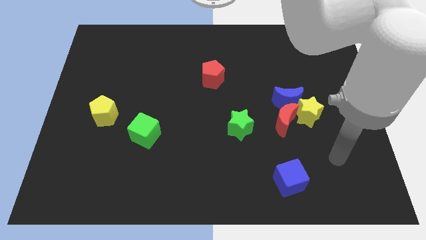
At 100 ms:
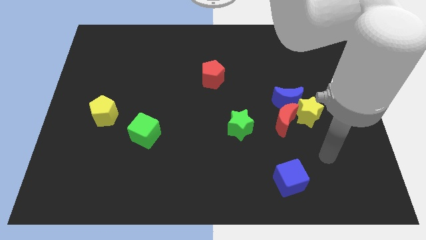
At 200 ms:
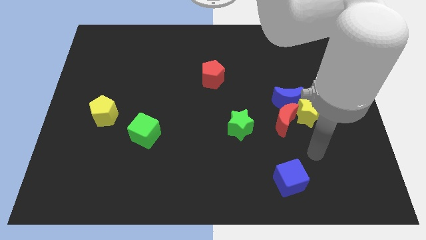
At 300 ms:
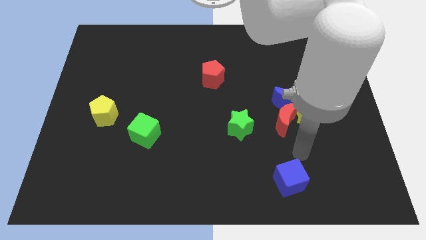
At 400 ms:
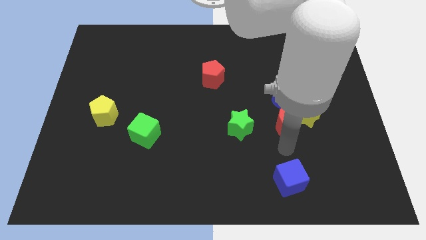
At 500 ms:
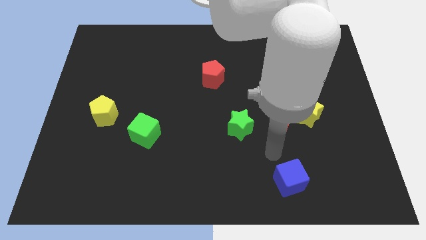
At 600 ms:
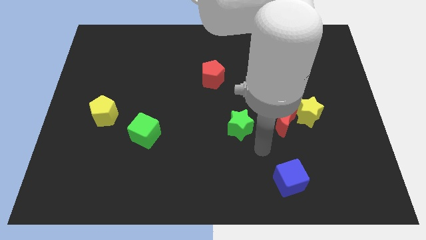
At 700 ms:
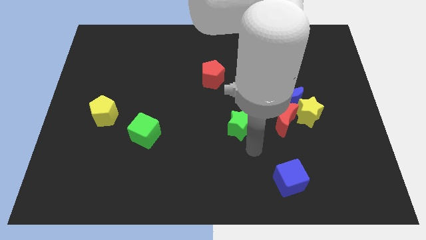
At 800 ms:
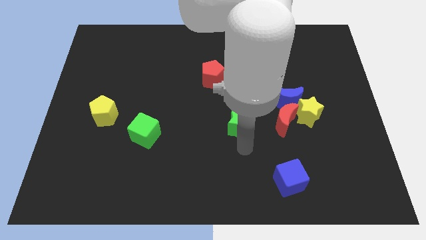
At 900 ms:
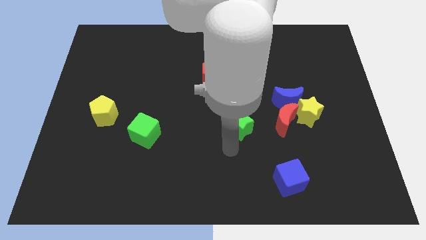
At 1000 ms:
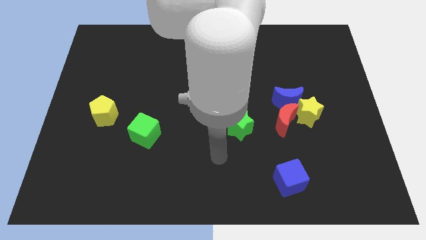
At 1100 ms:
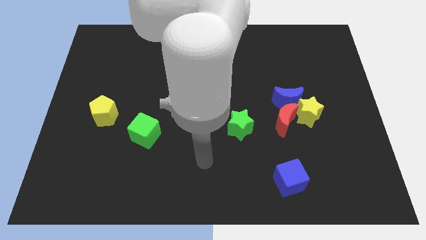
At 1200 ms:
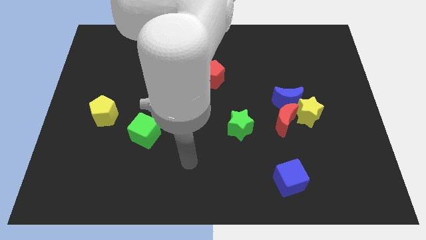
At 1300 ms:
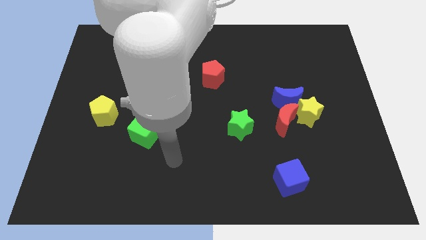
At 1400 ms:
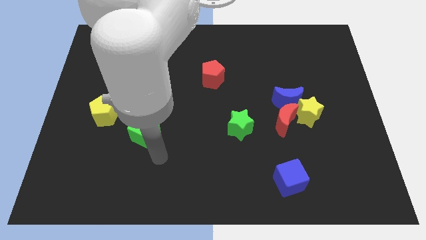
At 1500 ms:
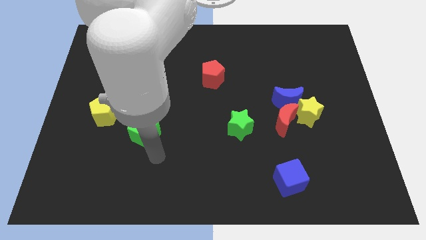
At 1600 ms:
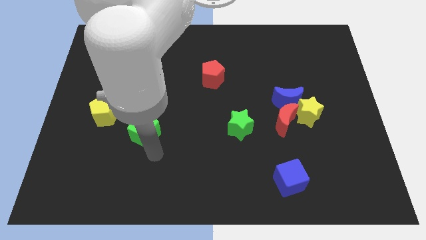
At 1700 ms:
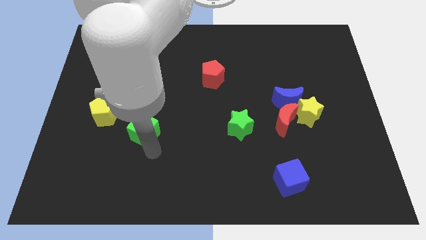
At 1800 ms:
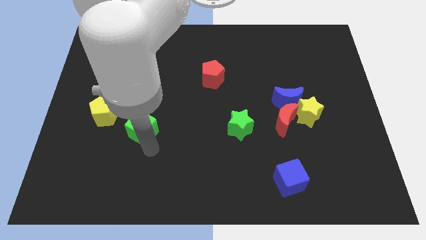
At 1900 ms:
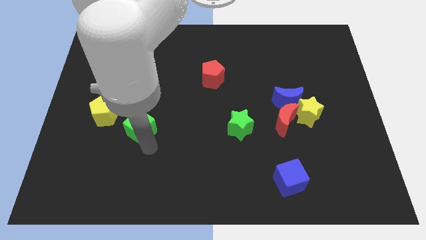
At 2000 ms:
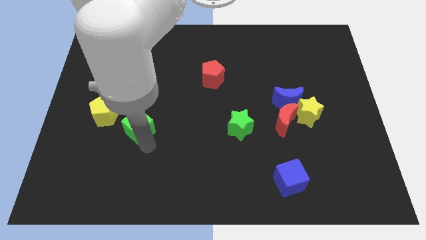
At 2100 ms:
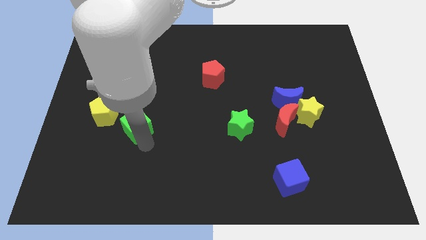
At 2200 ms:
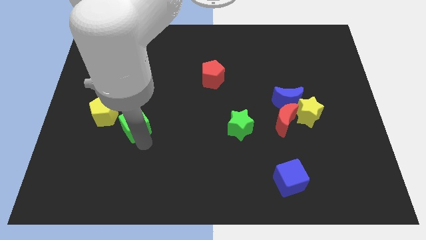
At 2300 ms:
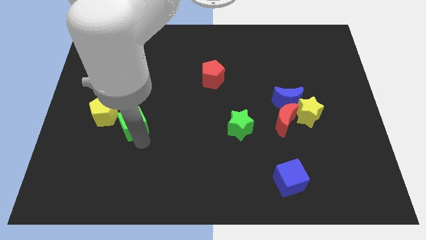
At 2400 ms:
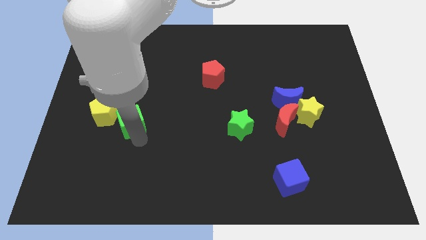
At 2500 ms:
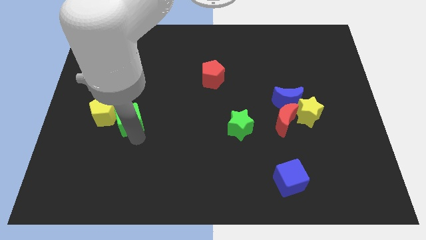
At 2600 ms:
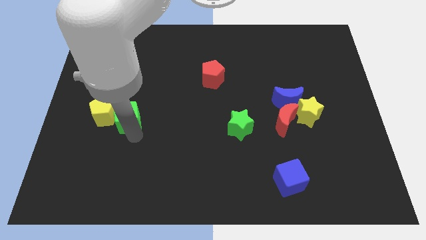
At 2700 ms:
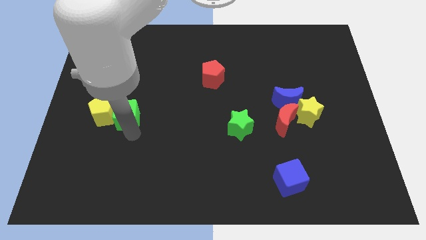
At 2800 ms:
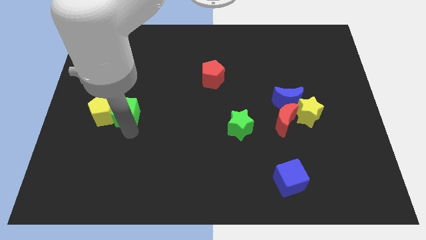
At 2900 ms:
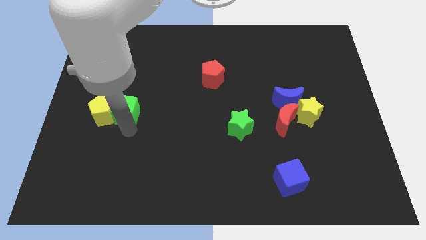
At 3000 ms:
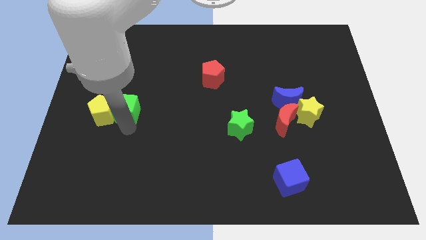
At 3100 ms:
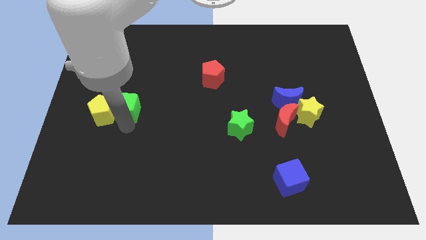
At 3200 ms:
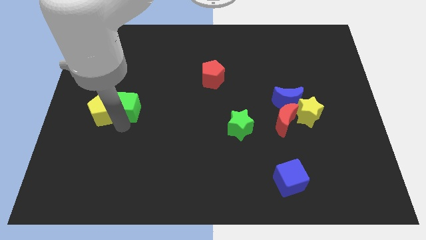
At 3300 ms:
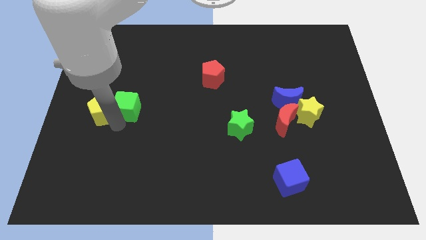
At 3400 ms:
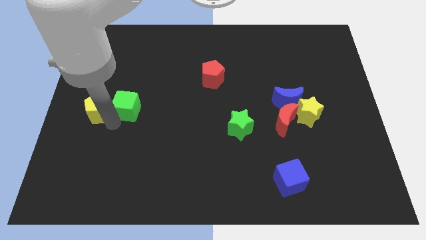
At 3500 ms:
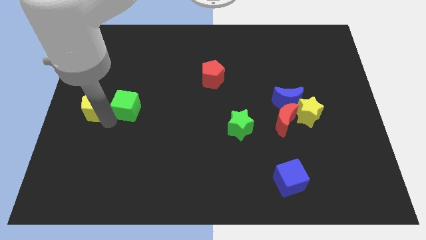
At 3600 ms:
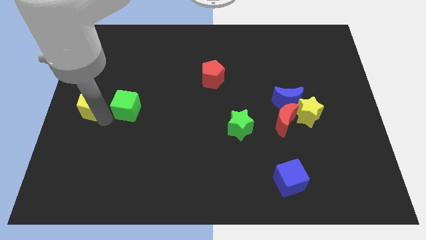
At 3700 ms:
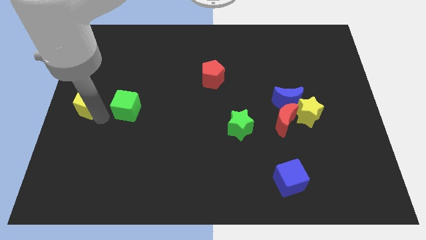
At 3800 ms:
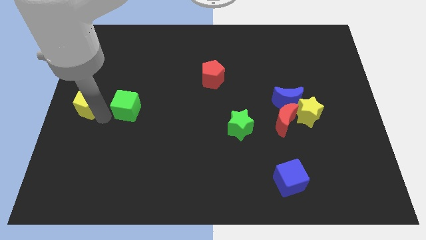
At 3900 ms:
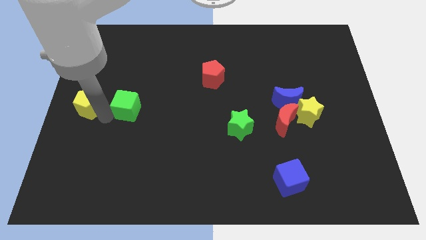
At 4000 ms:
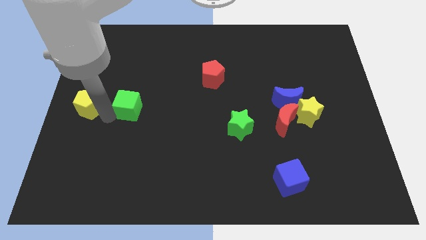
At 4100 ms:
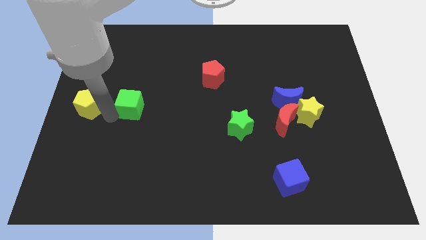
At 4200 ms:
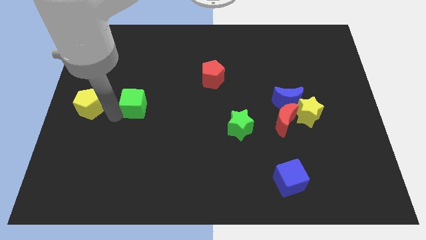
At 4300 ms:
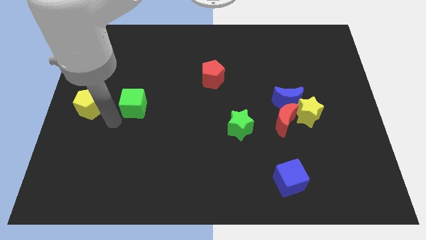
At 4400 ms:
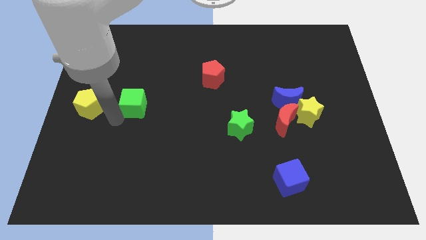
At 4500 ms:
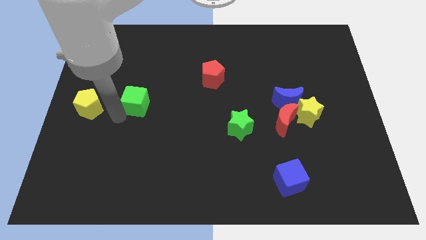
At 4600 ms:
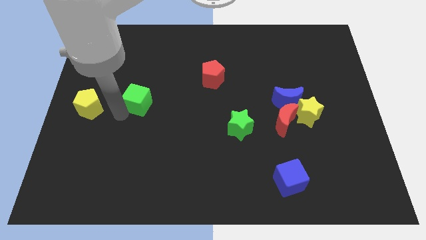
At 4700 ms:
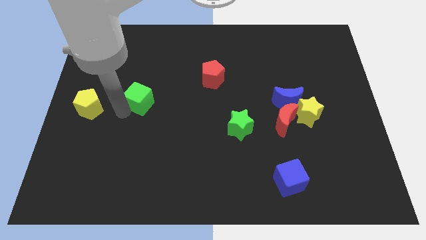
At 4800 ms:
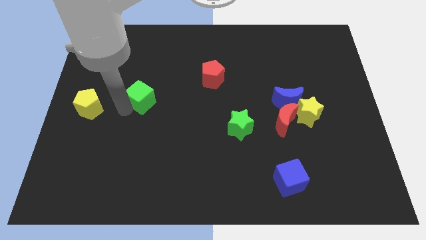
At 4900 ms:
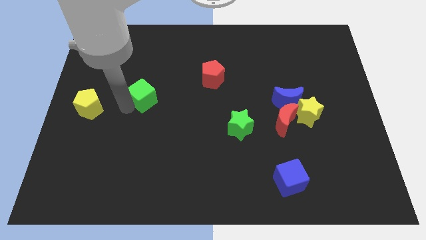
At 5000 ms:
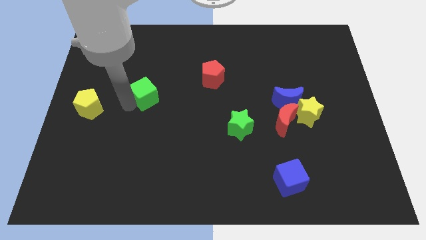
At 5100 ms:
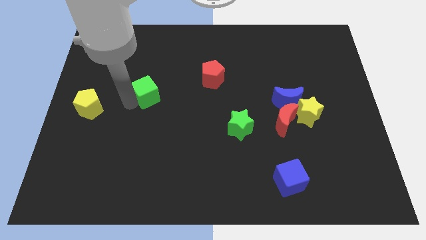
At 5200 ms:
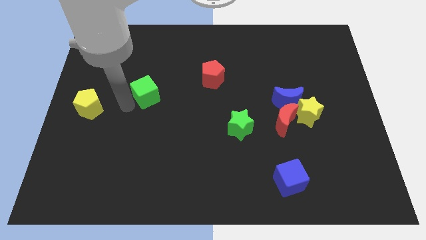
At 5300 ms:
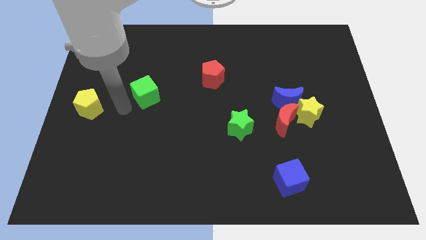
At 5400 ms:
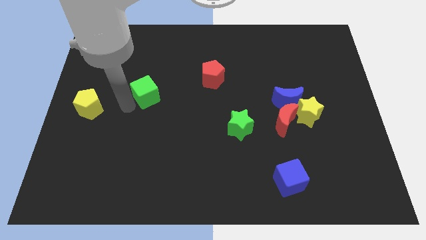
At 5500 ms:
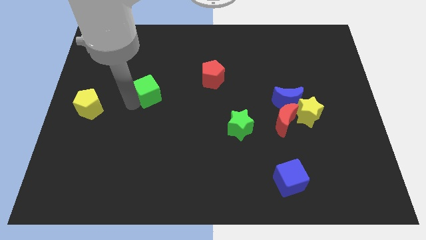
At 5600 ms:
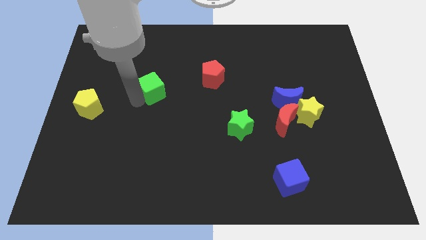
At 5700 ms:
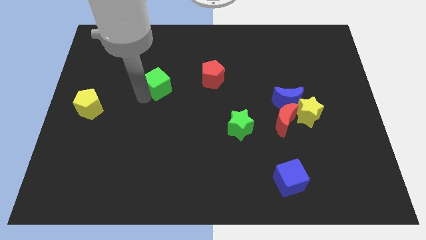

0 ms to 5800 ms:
put the green cube left of the red pentagon

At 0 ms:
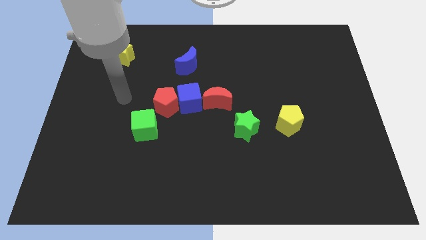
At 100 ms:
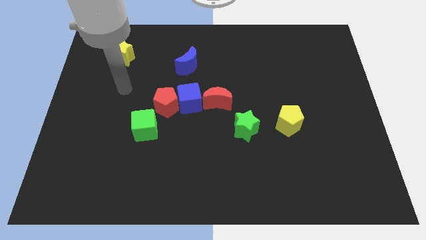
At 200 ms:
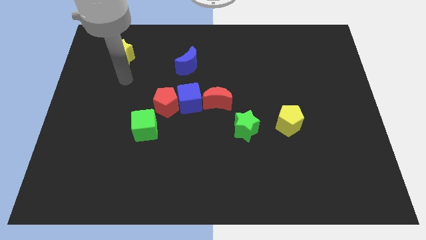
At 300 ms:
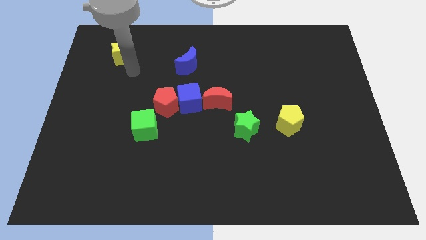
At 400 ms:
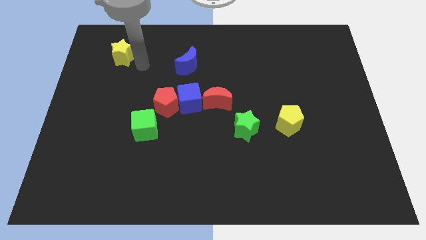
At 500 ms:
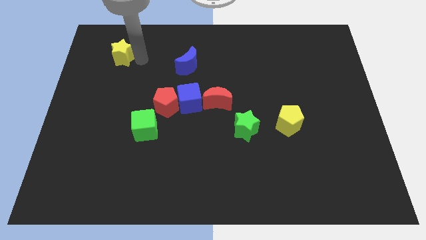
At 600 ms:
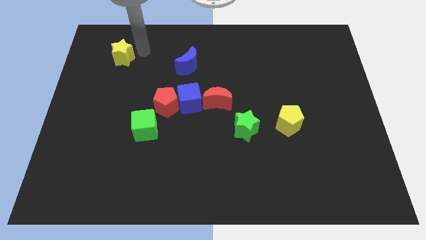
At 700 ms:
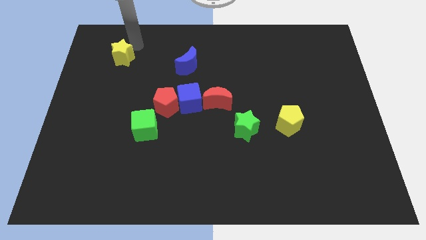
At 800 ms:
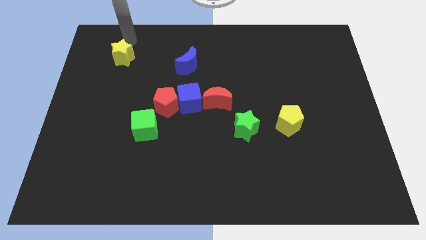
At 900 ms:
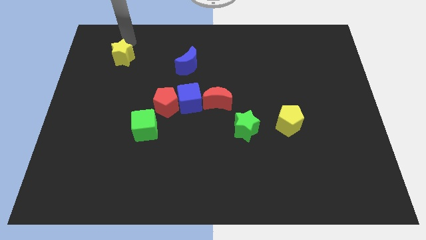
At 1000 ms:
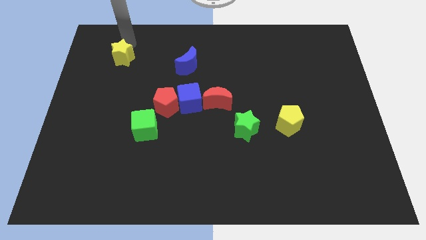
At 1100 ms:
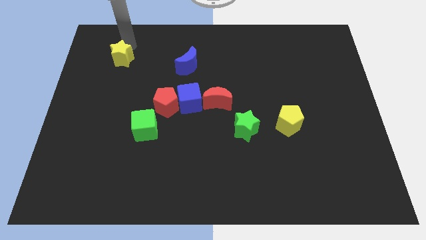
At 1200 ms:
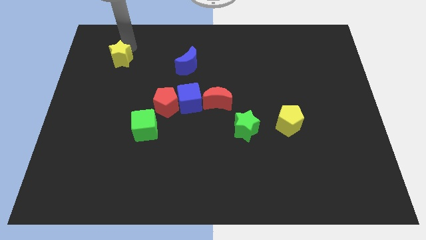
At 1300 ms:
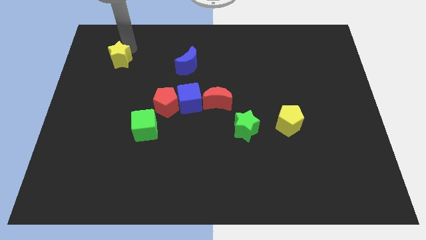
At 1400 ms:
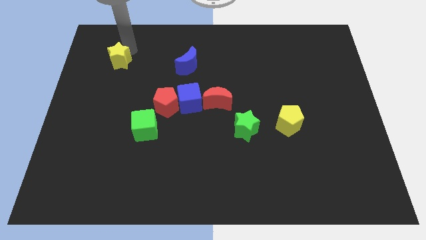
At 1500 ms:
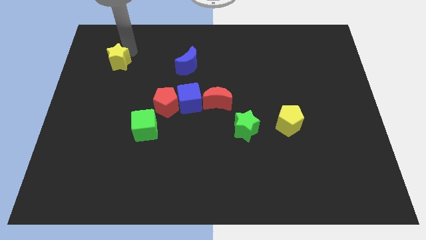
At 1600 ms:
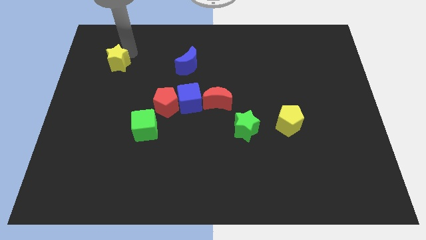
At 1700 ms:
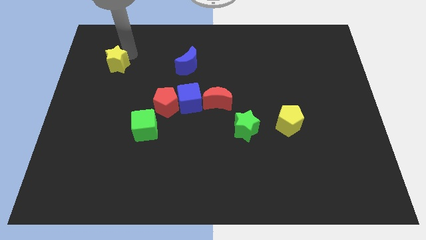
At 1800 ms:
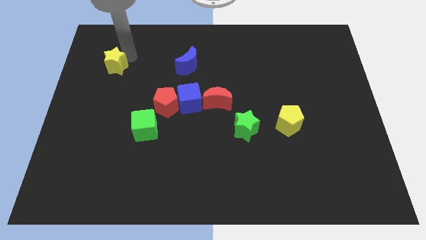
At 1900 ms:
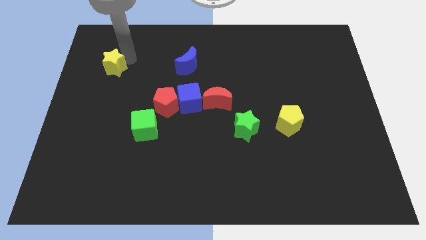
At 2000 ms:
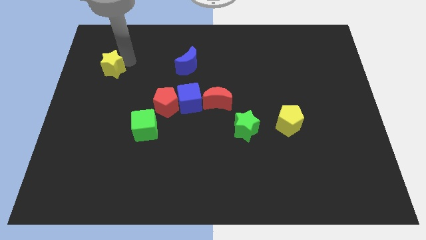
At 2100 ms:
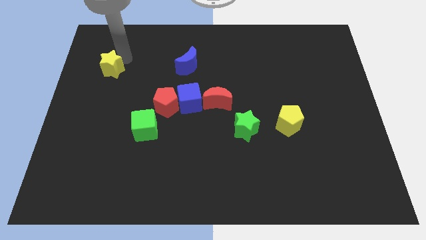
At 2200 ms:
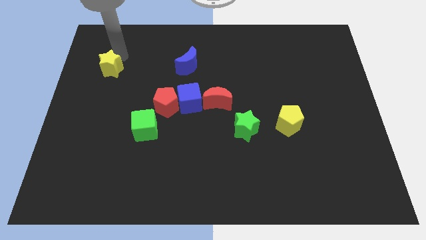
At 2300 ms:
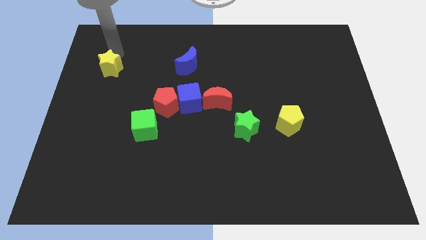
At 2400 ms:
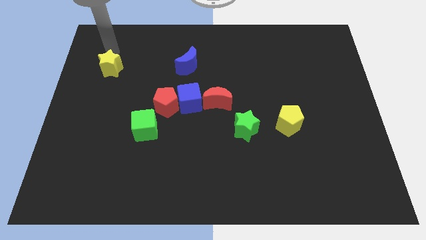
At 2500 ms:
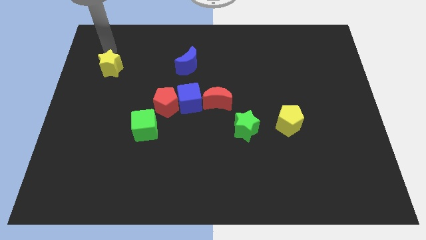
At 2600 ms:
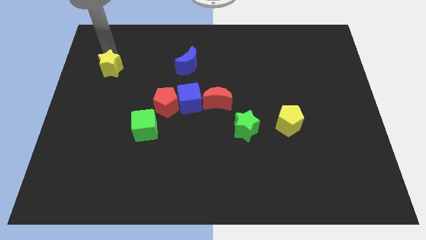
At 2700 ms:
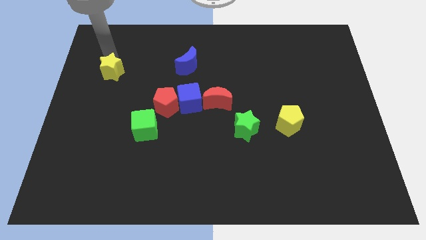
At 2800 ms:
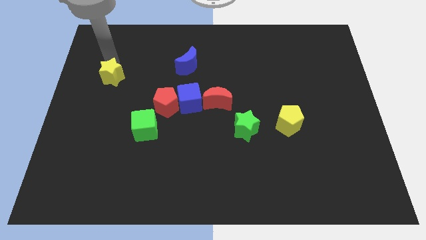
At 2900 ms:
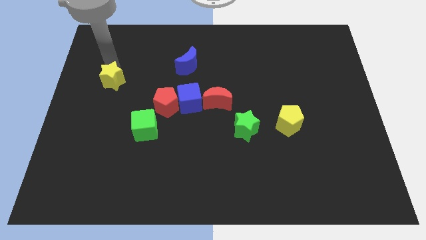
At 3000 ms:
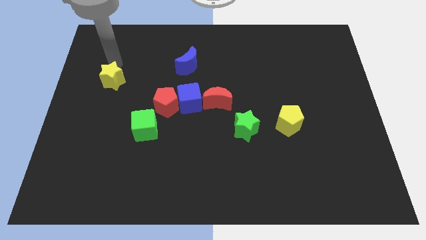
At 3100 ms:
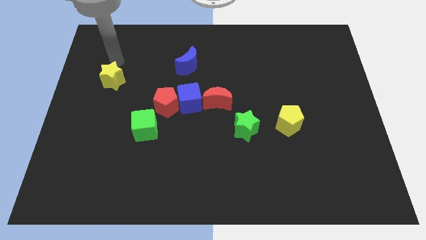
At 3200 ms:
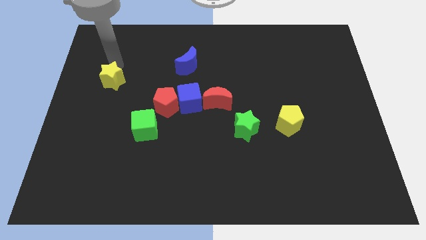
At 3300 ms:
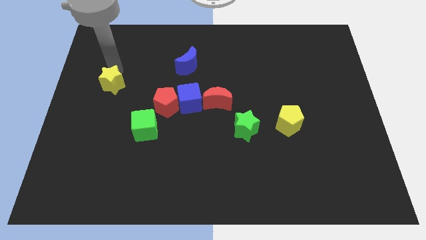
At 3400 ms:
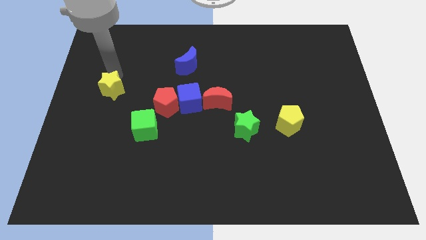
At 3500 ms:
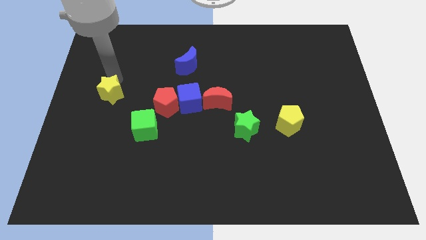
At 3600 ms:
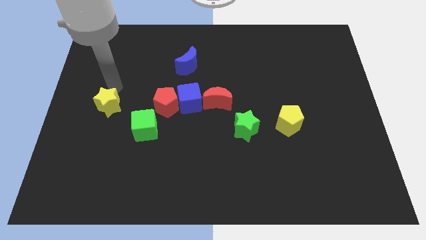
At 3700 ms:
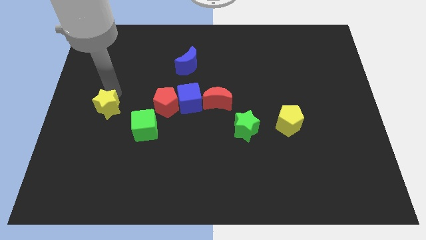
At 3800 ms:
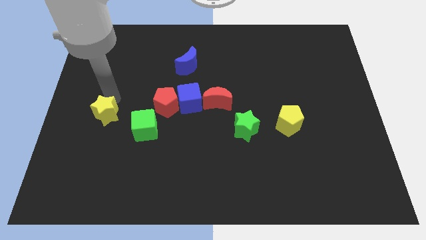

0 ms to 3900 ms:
push the yellow star to the left of the green cube
